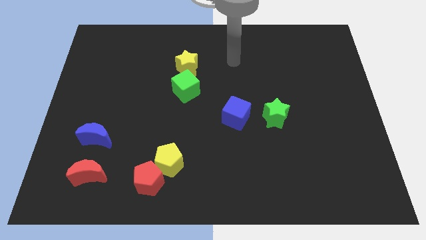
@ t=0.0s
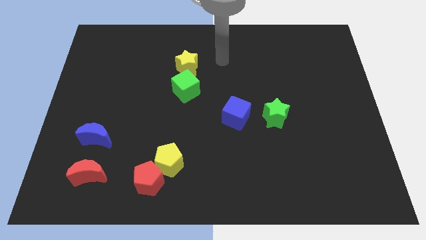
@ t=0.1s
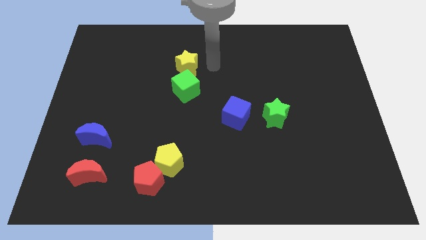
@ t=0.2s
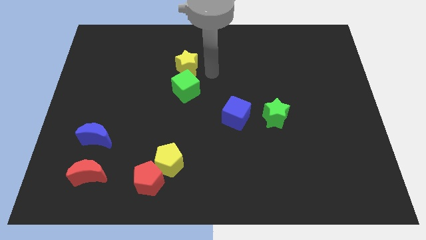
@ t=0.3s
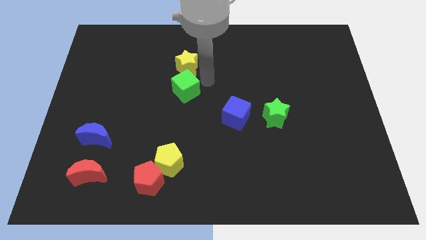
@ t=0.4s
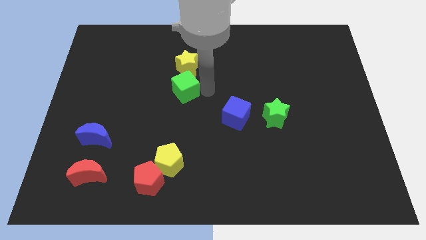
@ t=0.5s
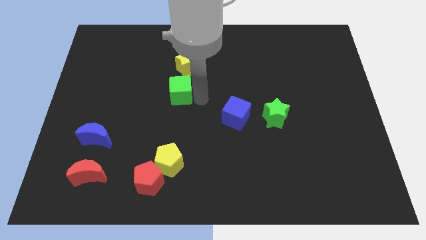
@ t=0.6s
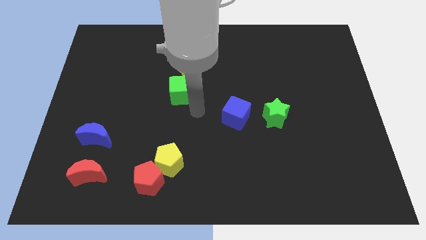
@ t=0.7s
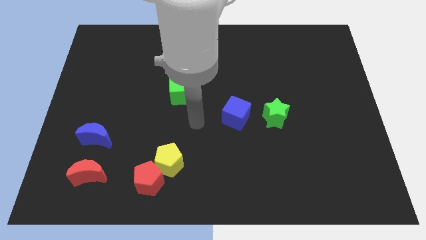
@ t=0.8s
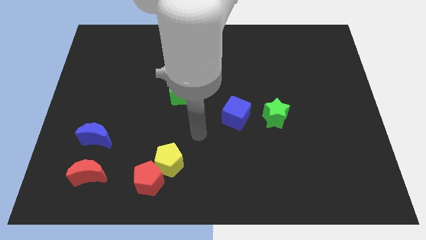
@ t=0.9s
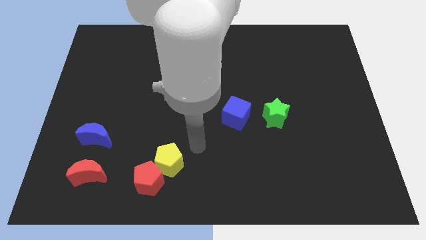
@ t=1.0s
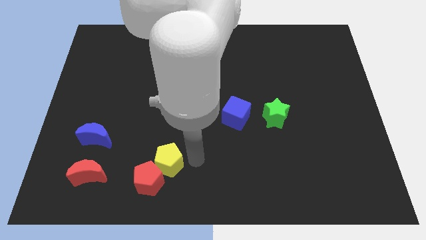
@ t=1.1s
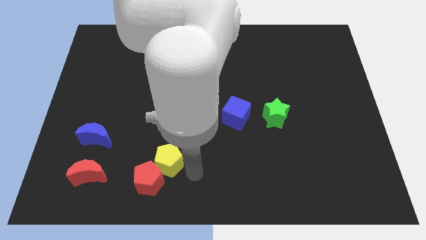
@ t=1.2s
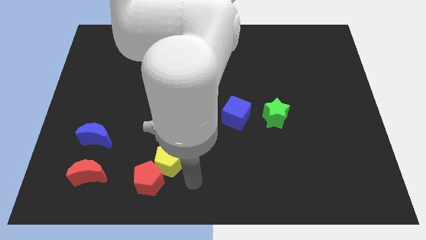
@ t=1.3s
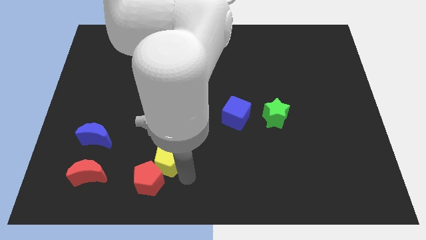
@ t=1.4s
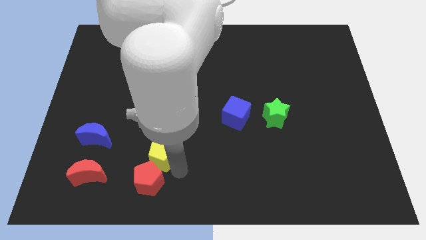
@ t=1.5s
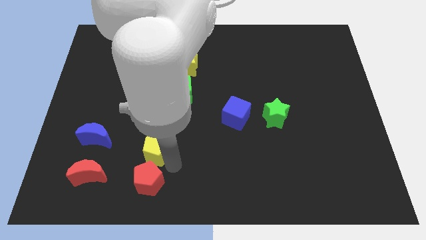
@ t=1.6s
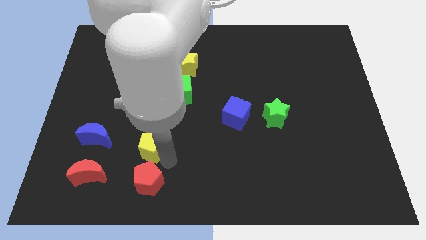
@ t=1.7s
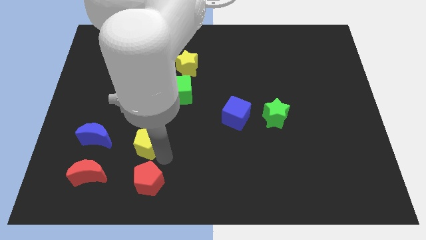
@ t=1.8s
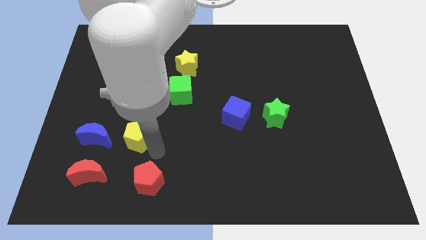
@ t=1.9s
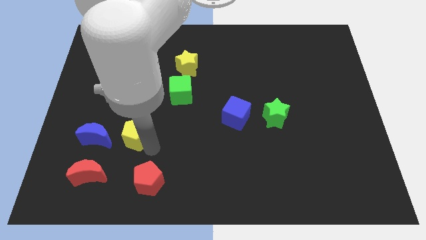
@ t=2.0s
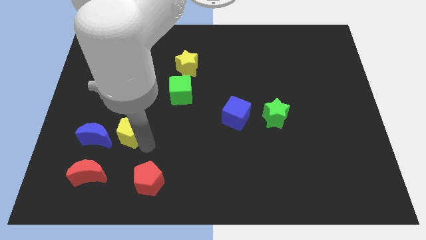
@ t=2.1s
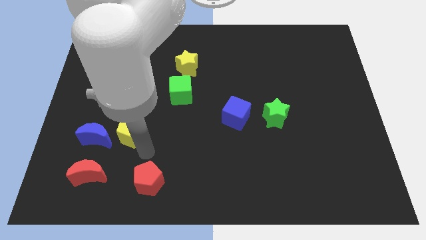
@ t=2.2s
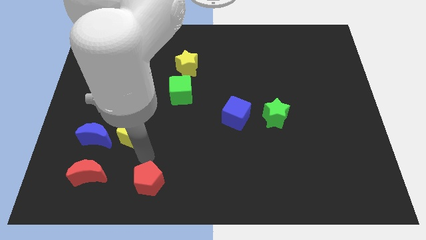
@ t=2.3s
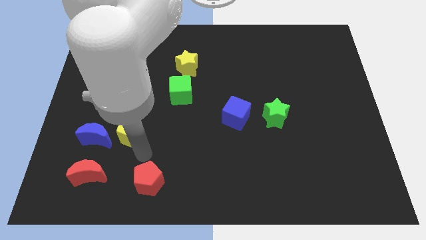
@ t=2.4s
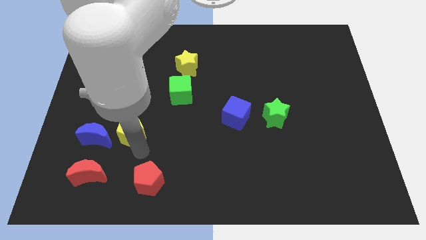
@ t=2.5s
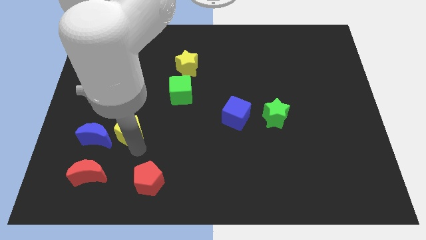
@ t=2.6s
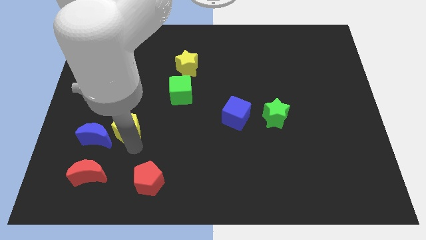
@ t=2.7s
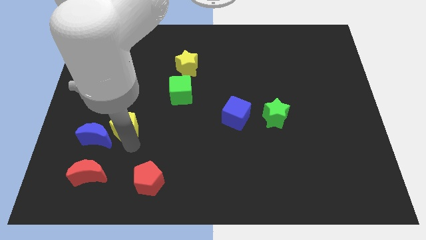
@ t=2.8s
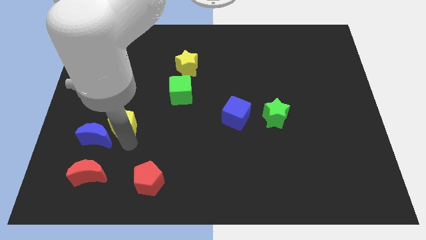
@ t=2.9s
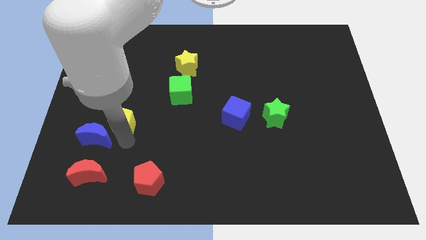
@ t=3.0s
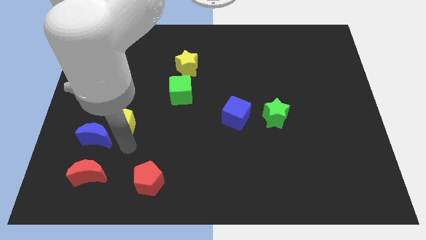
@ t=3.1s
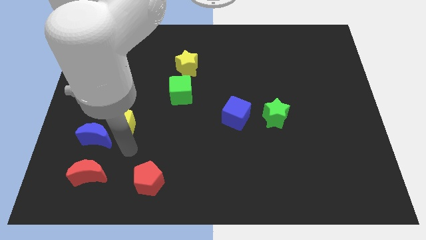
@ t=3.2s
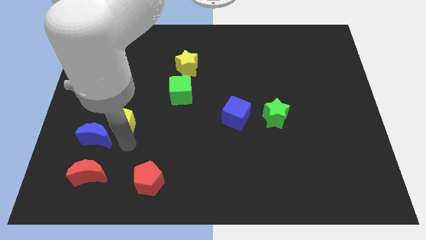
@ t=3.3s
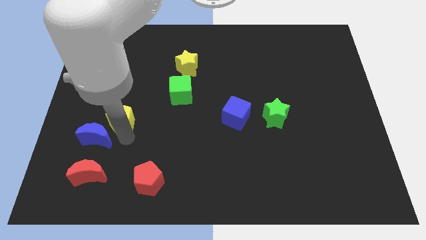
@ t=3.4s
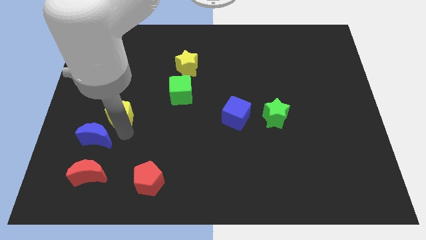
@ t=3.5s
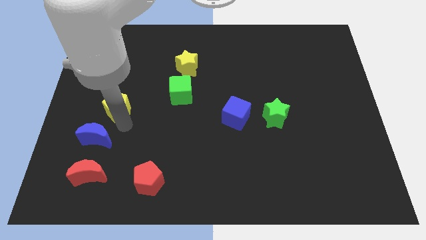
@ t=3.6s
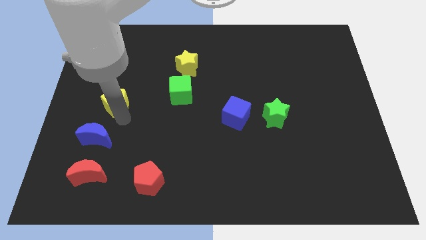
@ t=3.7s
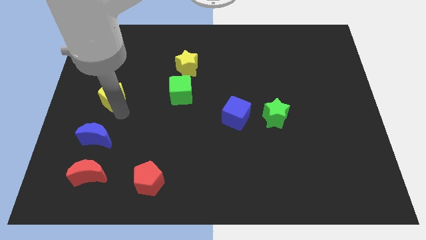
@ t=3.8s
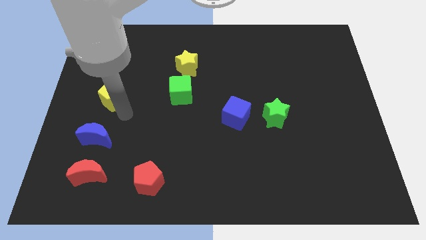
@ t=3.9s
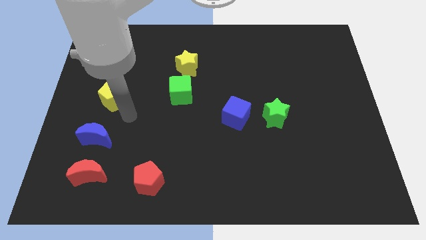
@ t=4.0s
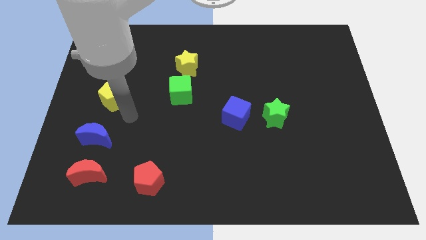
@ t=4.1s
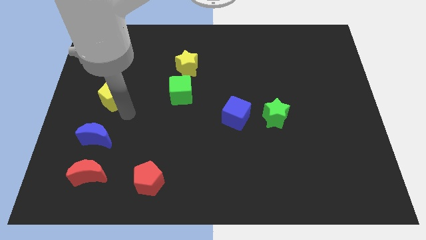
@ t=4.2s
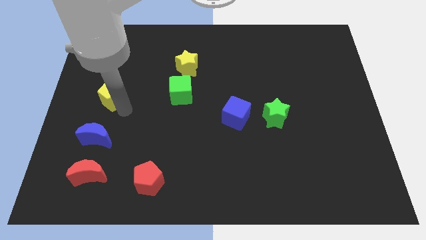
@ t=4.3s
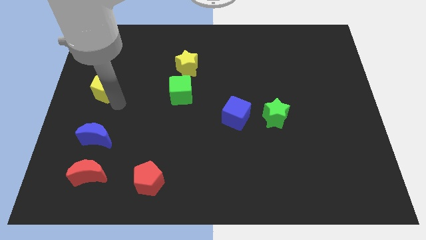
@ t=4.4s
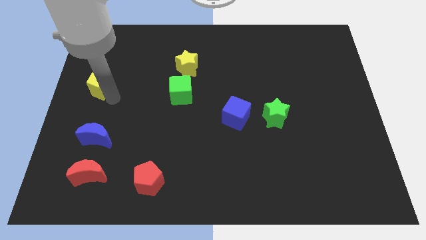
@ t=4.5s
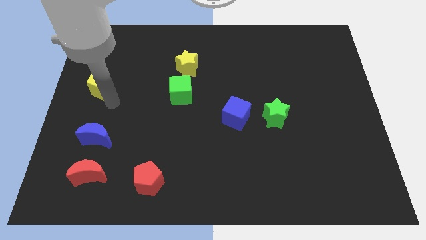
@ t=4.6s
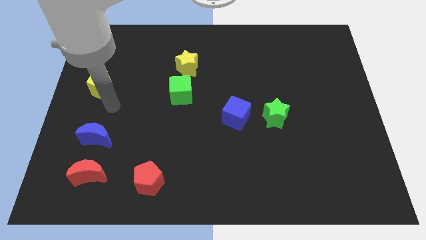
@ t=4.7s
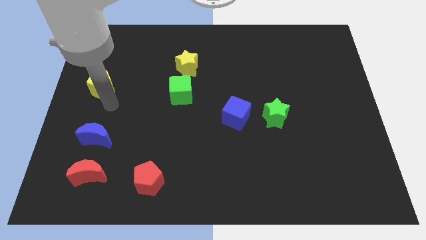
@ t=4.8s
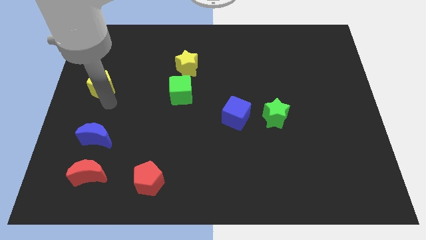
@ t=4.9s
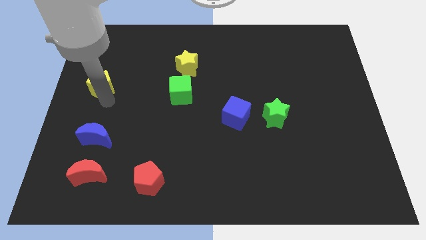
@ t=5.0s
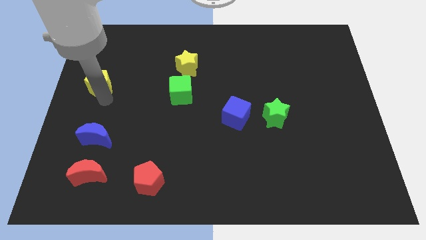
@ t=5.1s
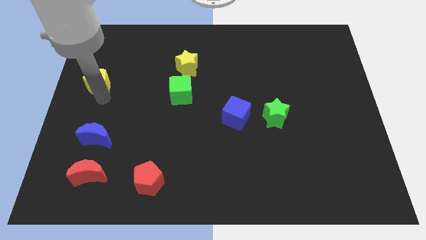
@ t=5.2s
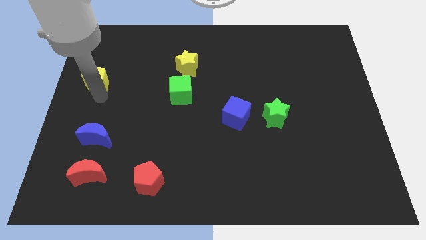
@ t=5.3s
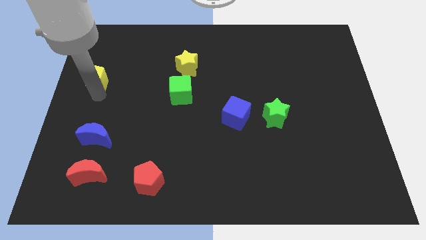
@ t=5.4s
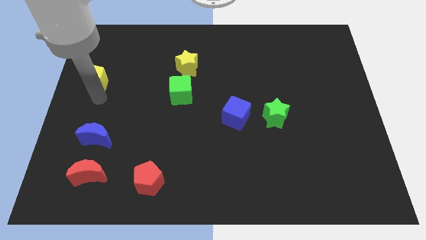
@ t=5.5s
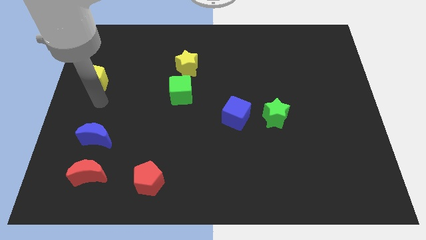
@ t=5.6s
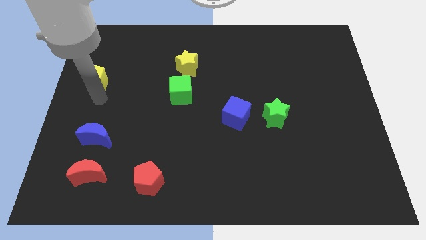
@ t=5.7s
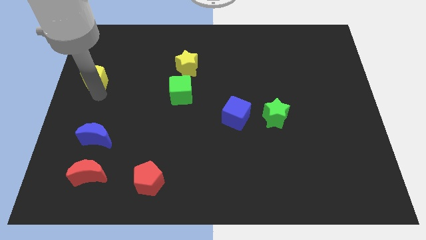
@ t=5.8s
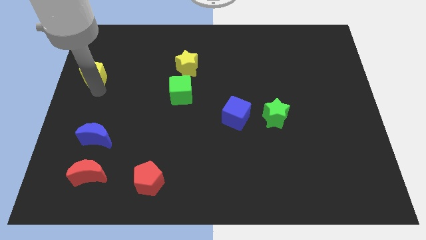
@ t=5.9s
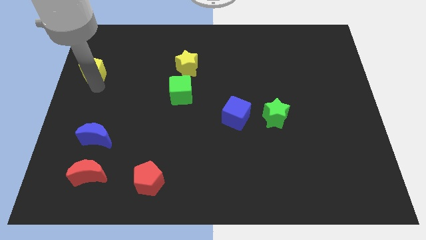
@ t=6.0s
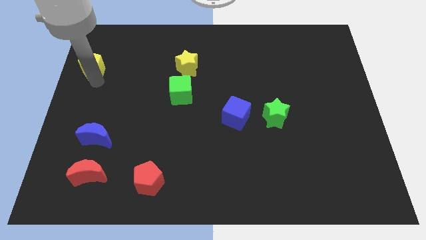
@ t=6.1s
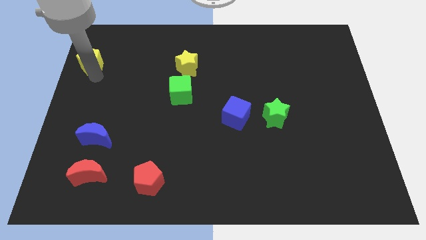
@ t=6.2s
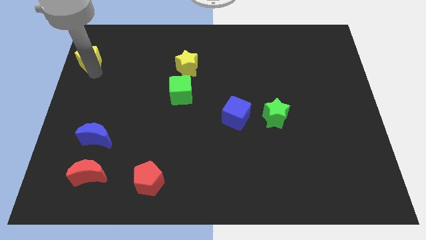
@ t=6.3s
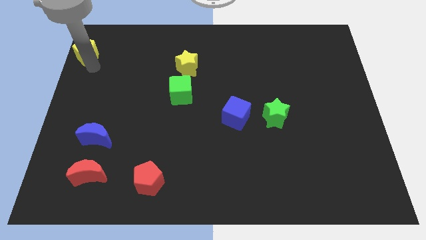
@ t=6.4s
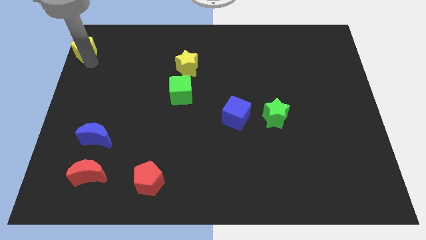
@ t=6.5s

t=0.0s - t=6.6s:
put the yellow pentagon to the top left

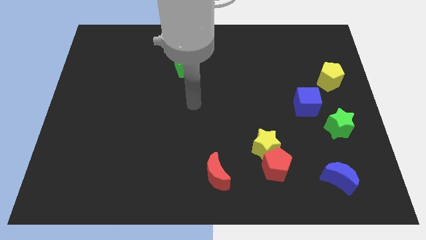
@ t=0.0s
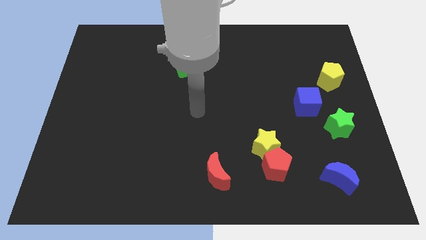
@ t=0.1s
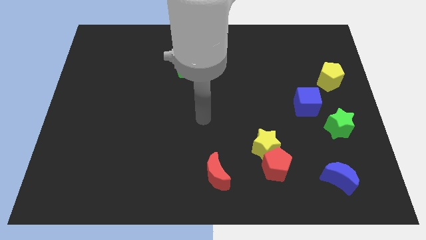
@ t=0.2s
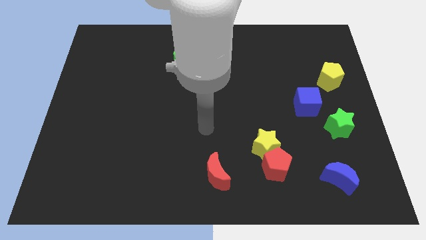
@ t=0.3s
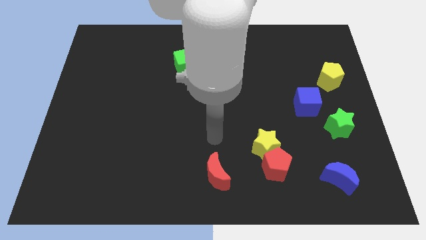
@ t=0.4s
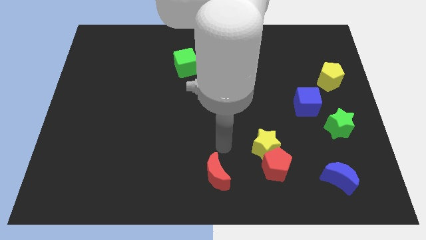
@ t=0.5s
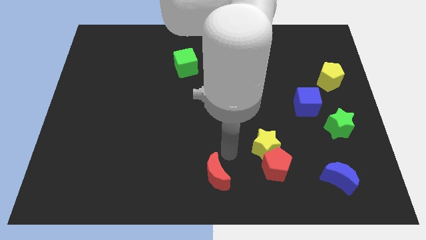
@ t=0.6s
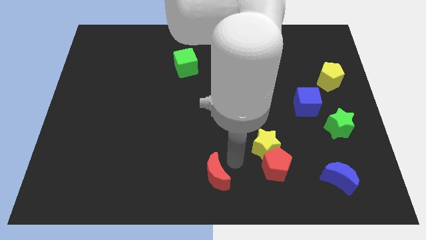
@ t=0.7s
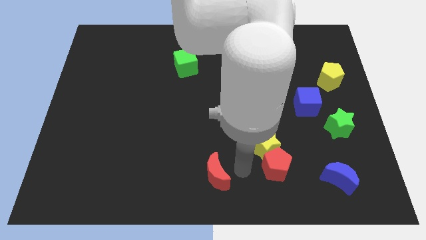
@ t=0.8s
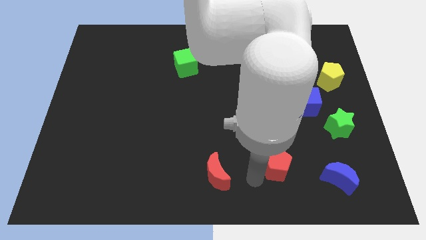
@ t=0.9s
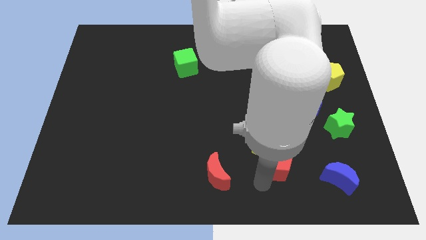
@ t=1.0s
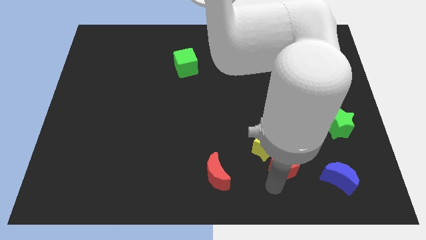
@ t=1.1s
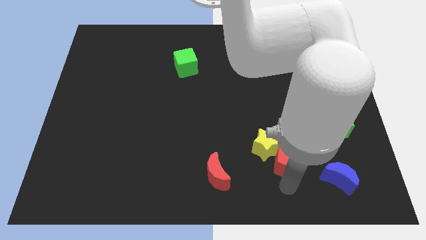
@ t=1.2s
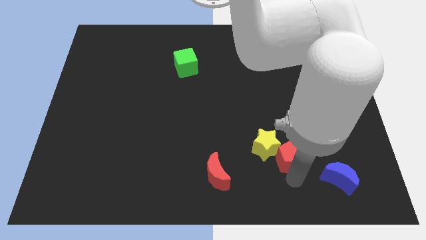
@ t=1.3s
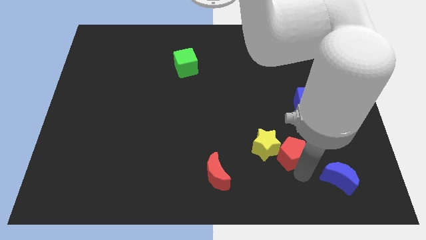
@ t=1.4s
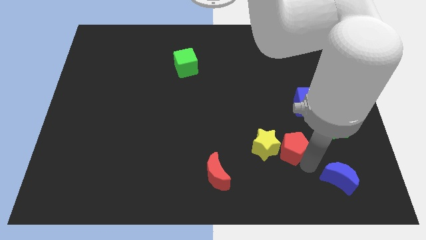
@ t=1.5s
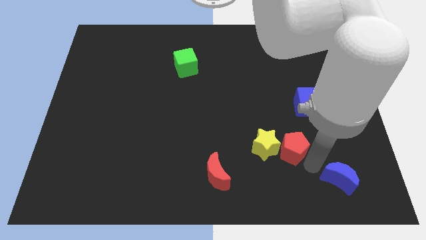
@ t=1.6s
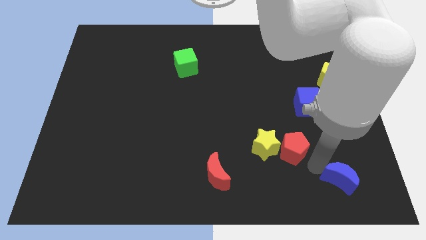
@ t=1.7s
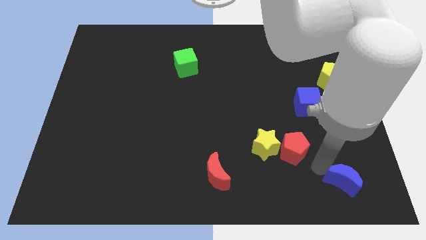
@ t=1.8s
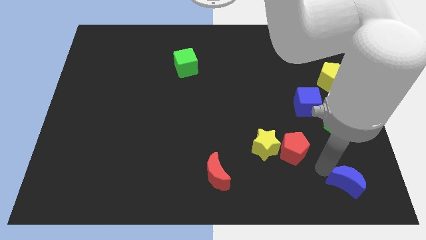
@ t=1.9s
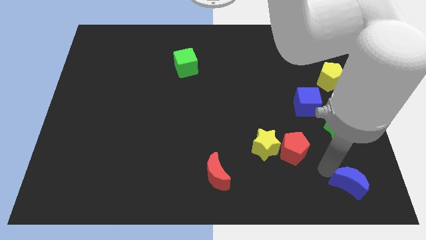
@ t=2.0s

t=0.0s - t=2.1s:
put the blue moon to the bottom right of the board
